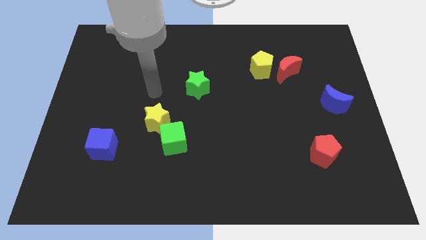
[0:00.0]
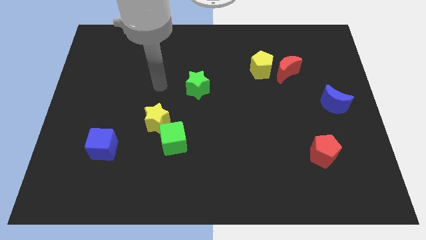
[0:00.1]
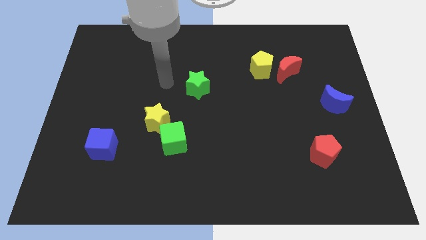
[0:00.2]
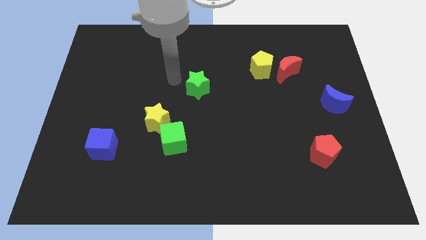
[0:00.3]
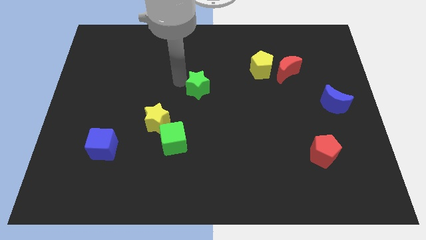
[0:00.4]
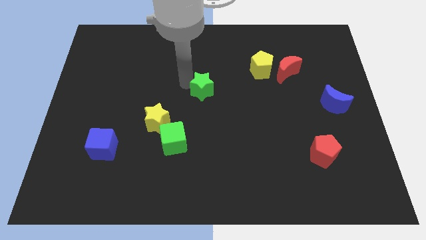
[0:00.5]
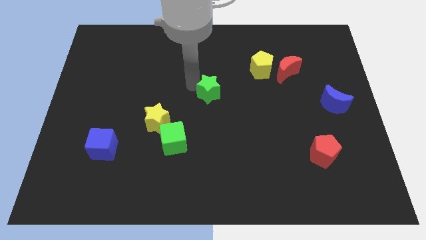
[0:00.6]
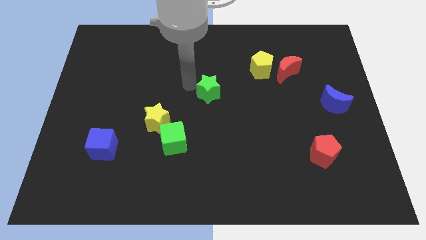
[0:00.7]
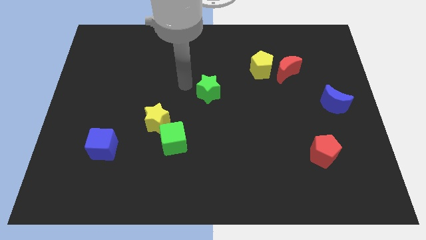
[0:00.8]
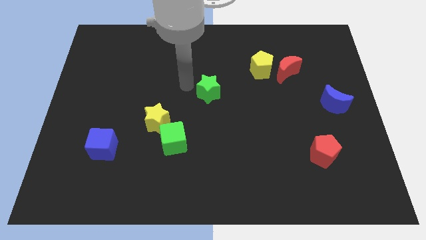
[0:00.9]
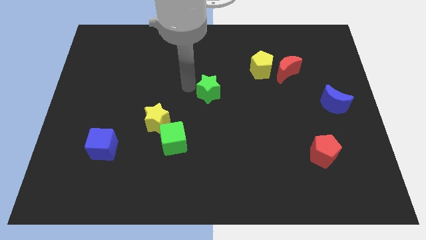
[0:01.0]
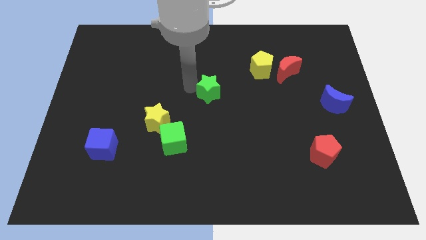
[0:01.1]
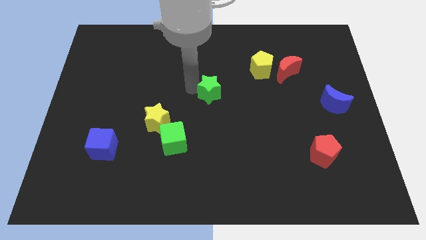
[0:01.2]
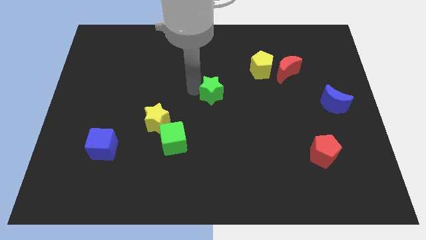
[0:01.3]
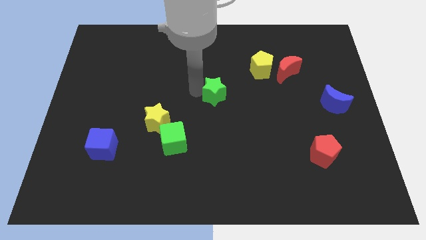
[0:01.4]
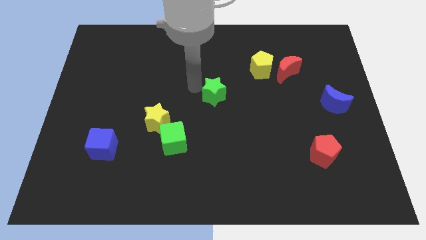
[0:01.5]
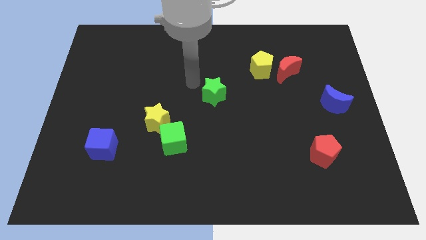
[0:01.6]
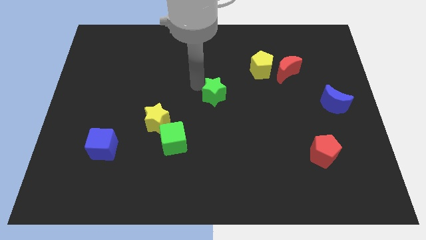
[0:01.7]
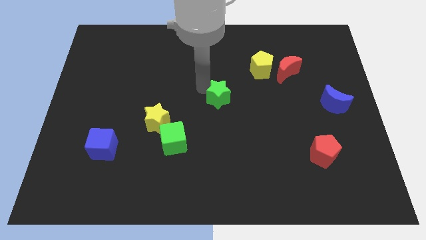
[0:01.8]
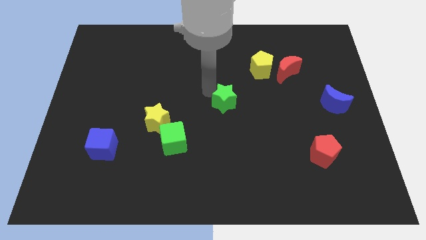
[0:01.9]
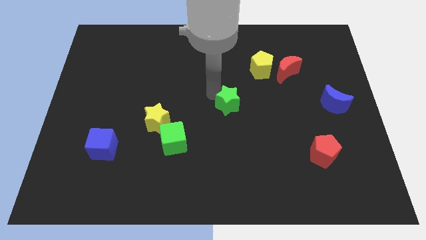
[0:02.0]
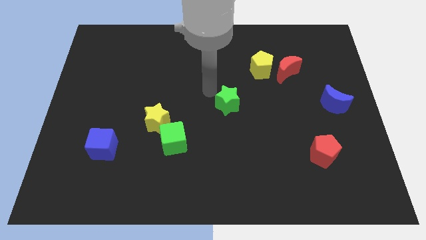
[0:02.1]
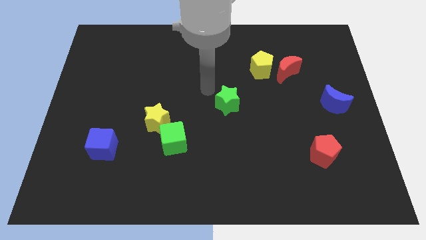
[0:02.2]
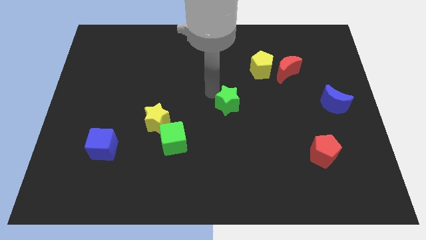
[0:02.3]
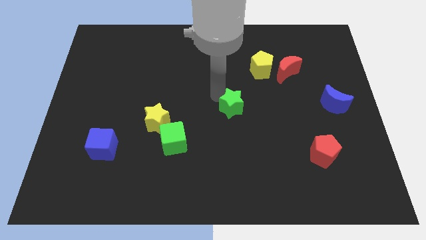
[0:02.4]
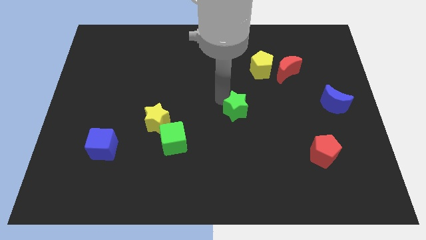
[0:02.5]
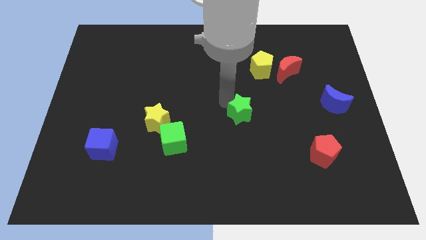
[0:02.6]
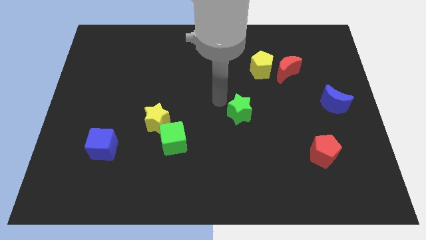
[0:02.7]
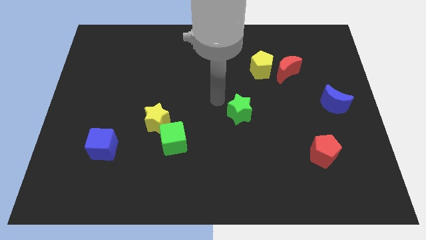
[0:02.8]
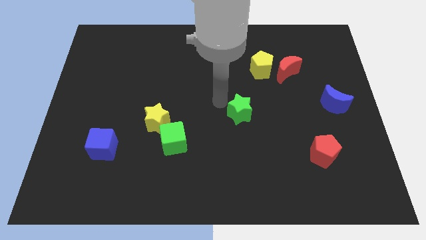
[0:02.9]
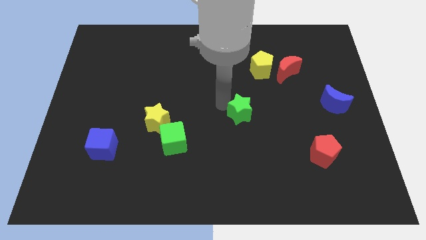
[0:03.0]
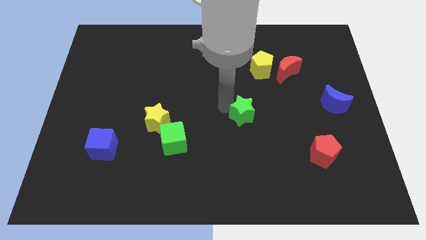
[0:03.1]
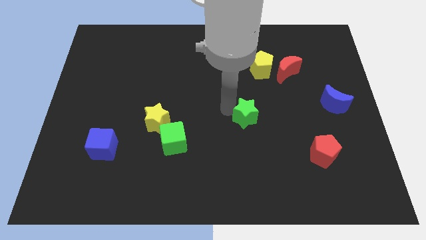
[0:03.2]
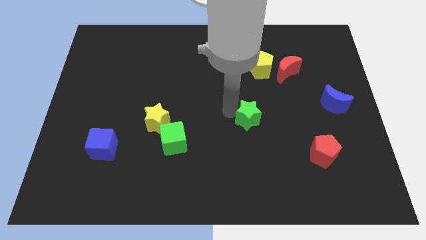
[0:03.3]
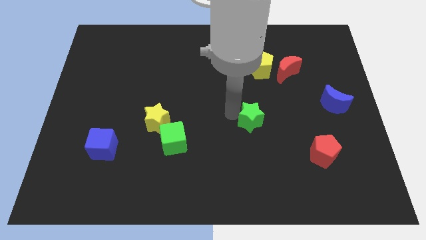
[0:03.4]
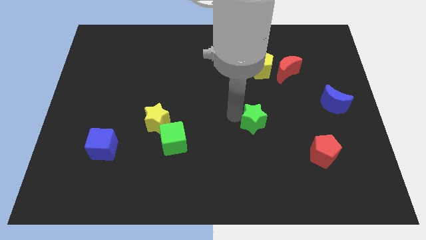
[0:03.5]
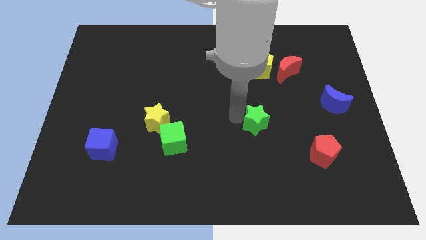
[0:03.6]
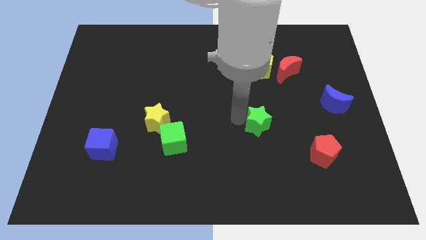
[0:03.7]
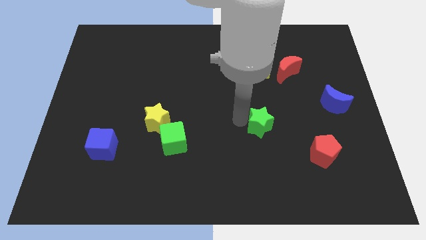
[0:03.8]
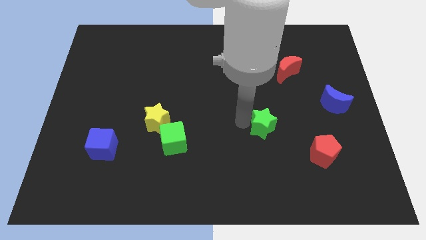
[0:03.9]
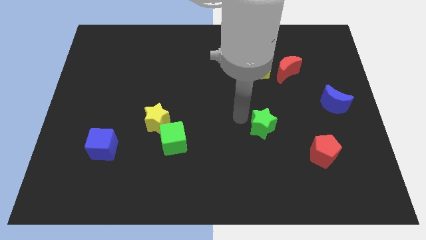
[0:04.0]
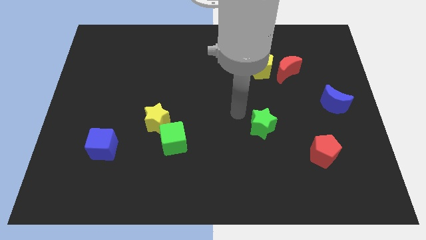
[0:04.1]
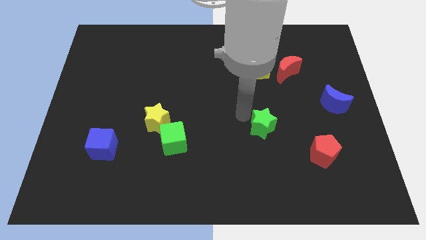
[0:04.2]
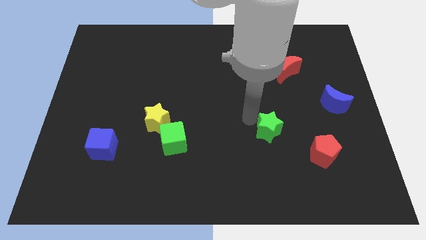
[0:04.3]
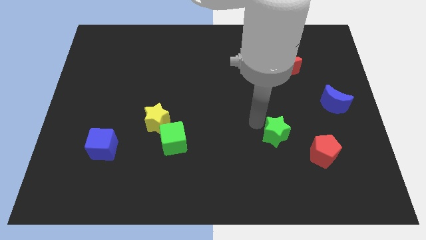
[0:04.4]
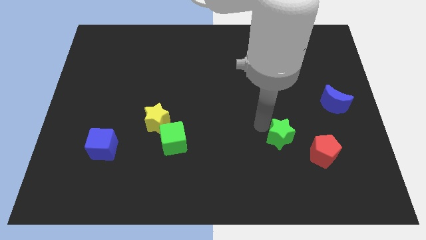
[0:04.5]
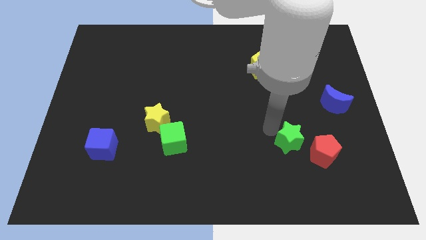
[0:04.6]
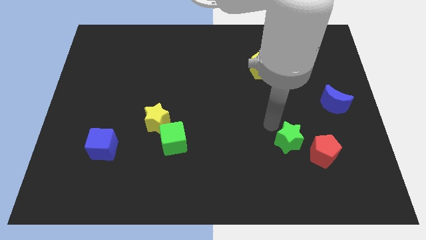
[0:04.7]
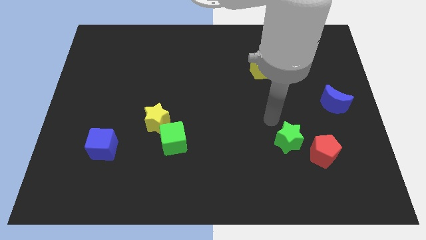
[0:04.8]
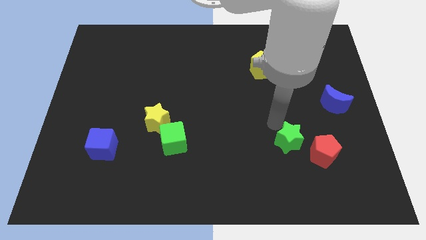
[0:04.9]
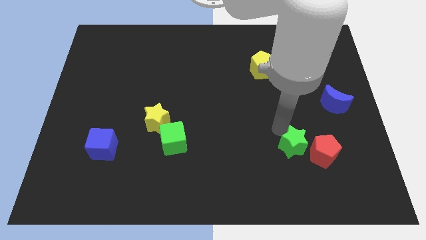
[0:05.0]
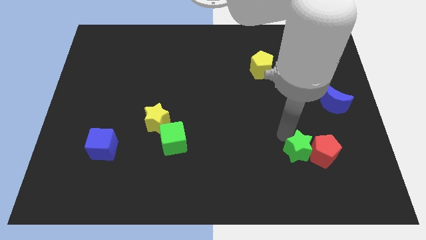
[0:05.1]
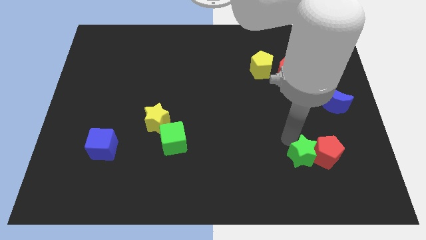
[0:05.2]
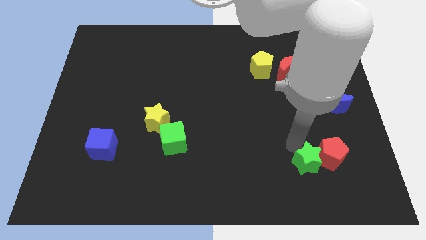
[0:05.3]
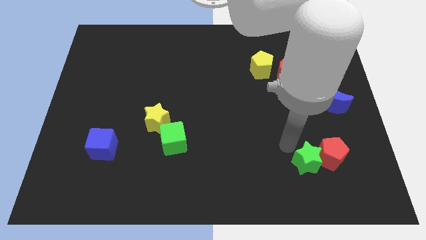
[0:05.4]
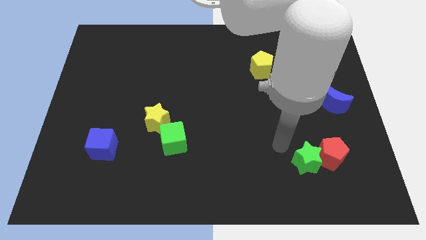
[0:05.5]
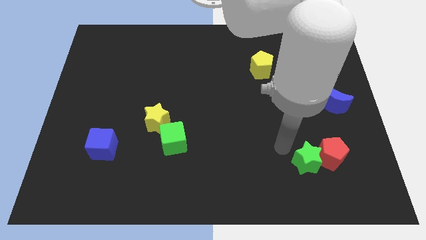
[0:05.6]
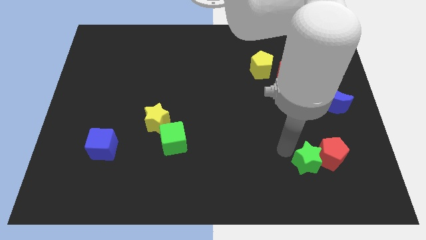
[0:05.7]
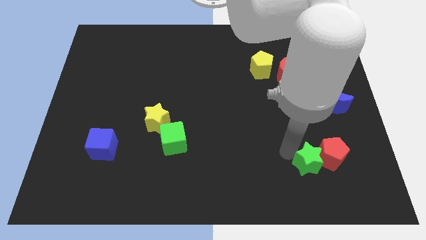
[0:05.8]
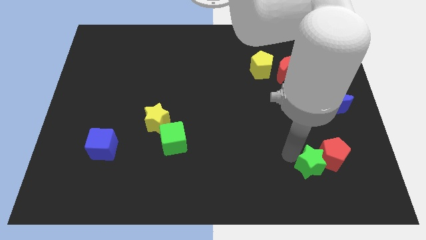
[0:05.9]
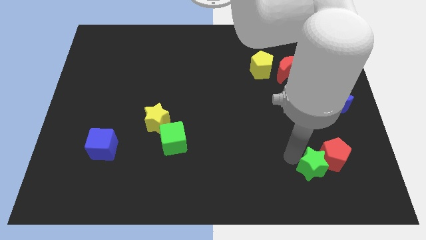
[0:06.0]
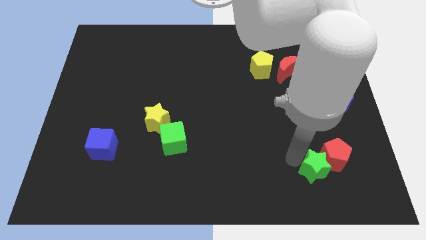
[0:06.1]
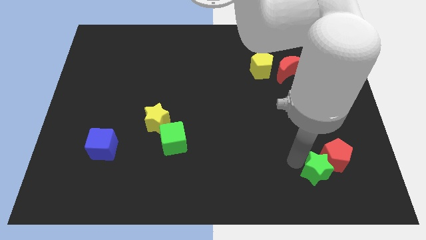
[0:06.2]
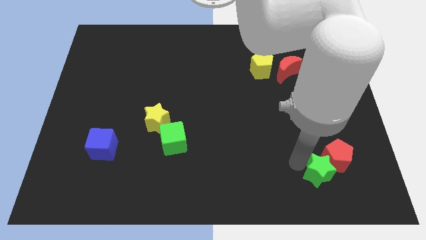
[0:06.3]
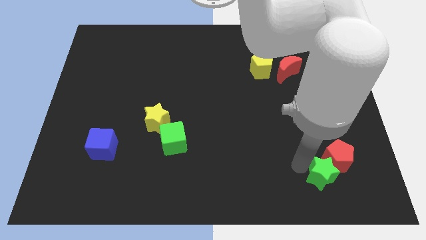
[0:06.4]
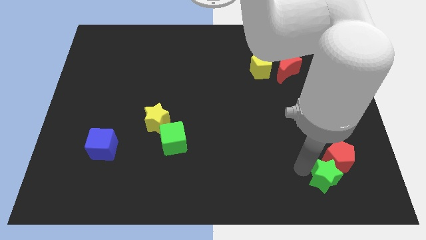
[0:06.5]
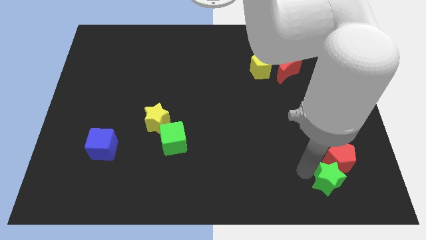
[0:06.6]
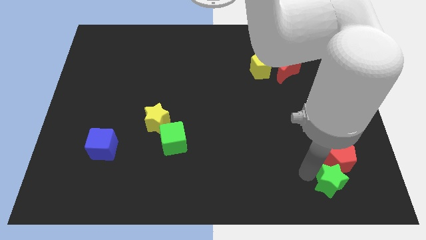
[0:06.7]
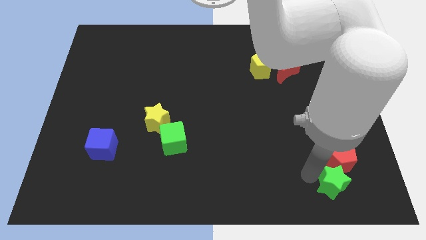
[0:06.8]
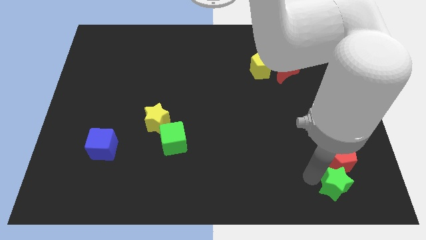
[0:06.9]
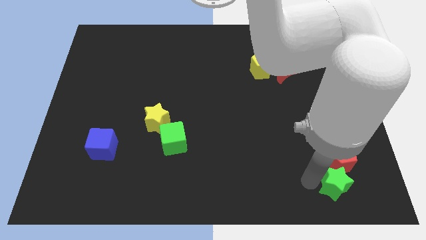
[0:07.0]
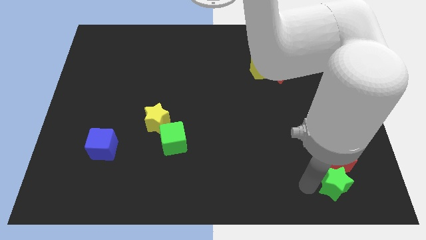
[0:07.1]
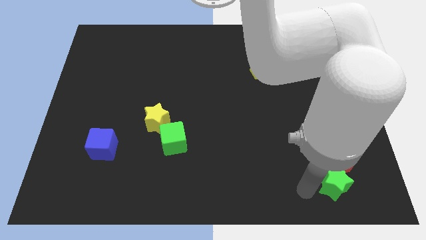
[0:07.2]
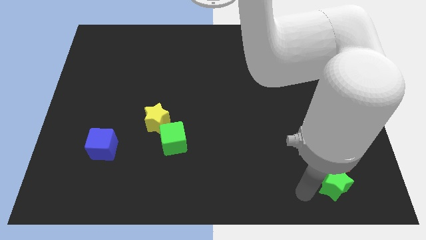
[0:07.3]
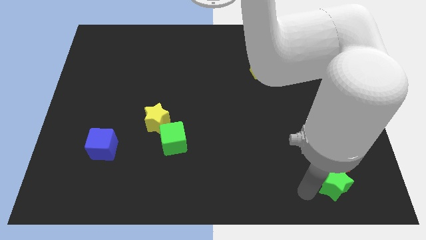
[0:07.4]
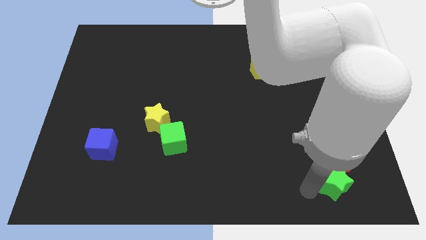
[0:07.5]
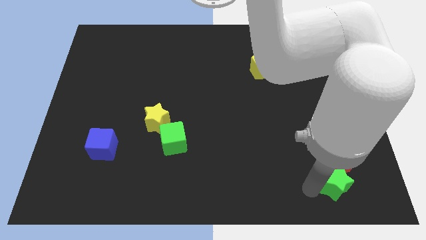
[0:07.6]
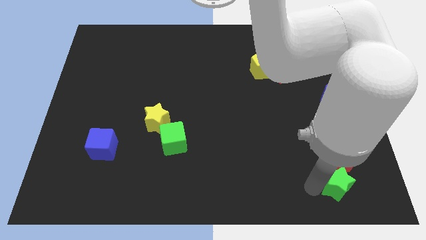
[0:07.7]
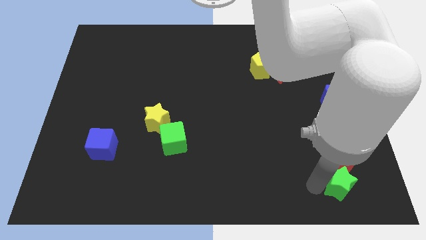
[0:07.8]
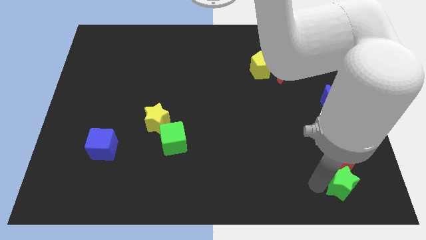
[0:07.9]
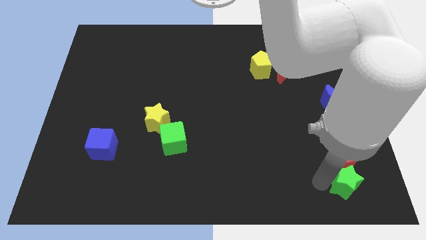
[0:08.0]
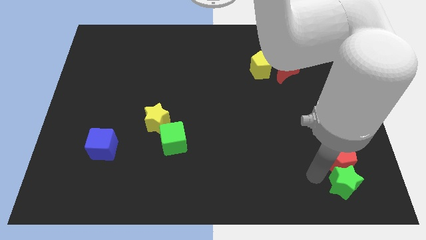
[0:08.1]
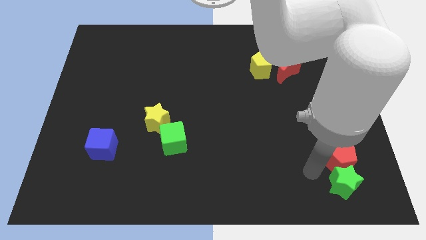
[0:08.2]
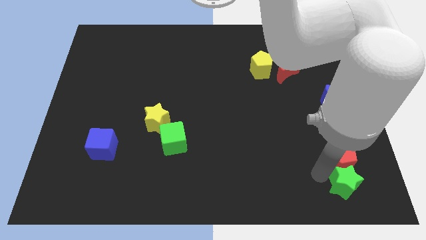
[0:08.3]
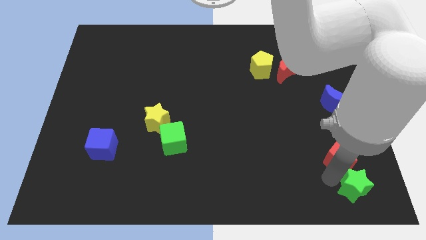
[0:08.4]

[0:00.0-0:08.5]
push the green star to the bottom right of the board
